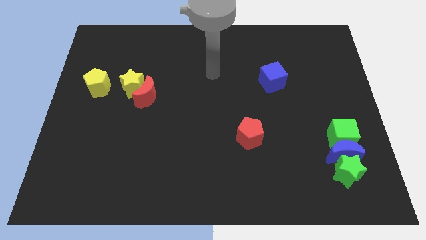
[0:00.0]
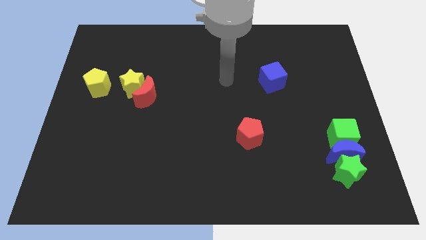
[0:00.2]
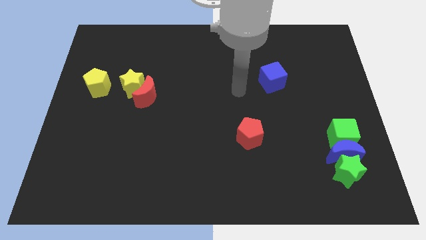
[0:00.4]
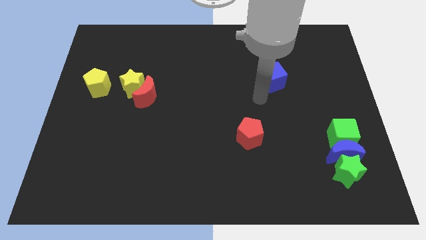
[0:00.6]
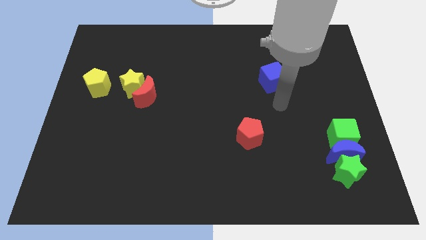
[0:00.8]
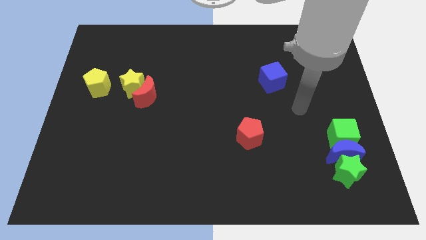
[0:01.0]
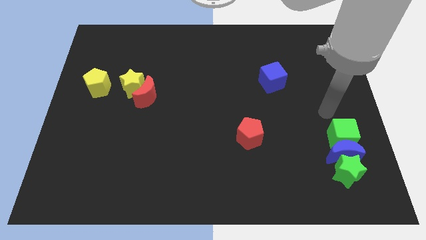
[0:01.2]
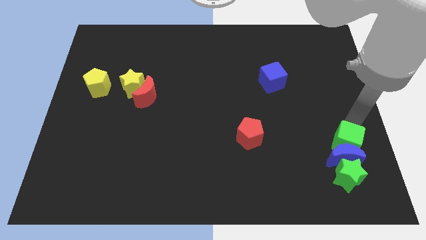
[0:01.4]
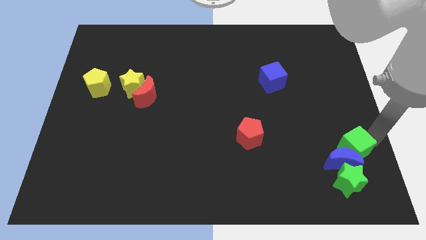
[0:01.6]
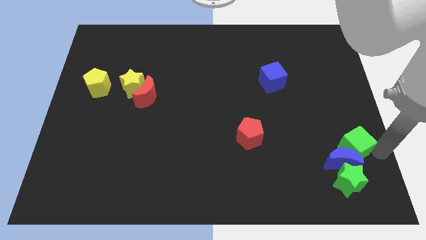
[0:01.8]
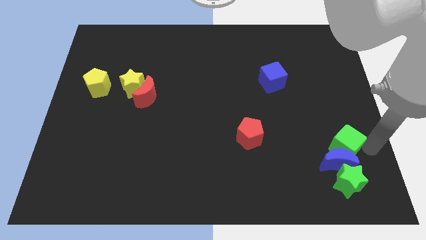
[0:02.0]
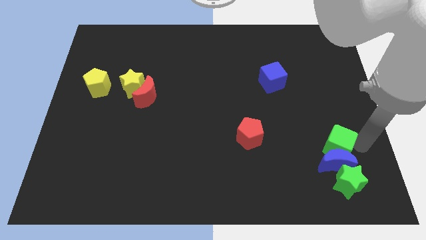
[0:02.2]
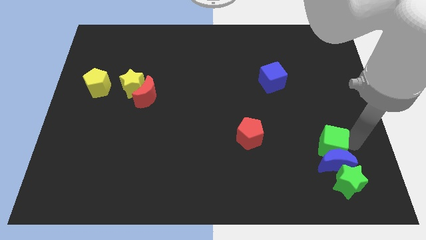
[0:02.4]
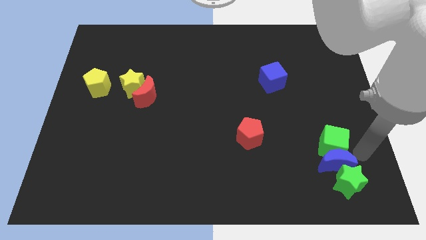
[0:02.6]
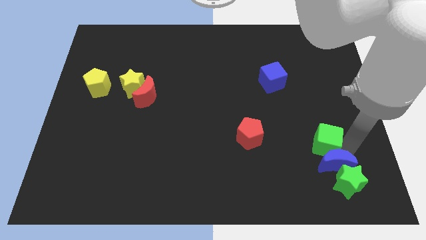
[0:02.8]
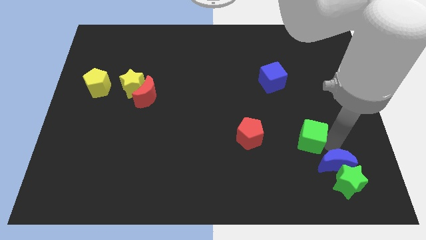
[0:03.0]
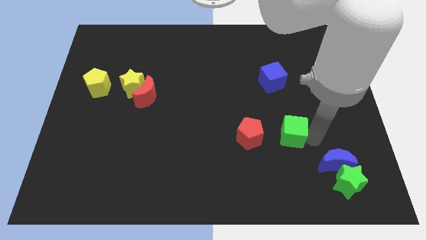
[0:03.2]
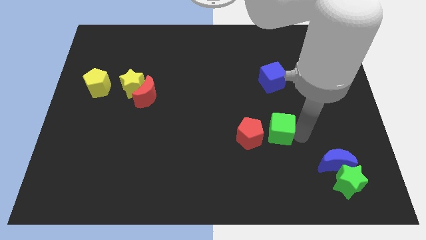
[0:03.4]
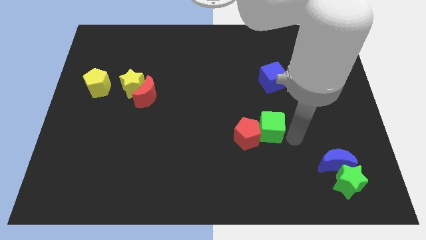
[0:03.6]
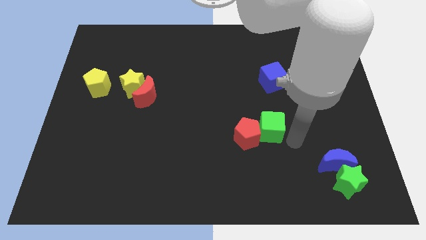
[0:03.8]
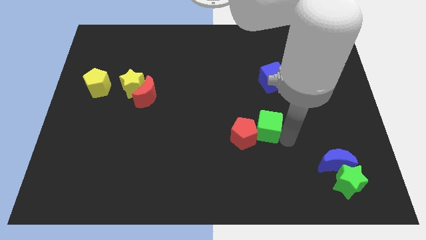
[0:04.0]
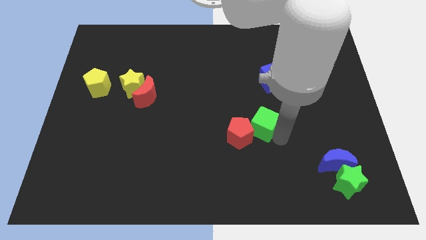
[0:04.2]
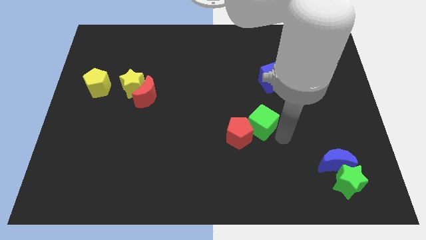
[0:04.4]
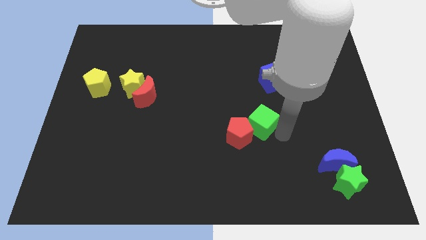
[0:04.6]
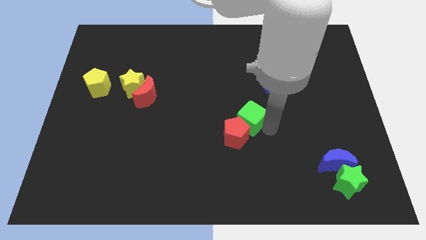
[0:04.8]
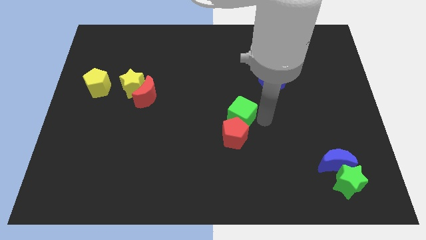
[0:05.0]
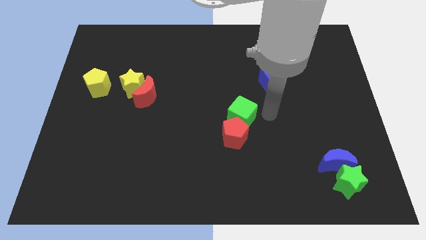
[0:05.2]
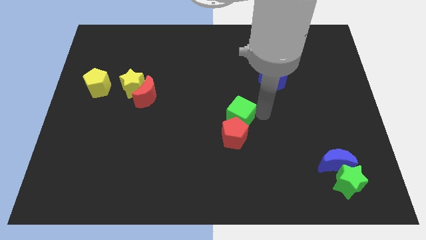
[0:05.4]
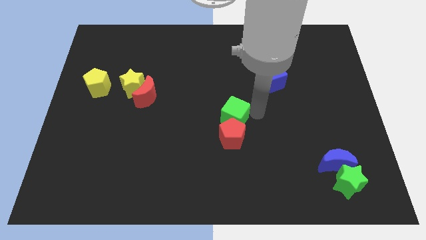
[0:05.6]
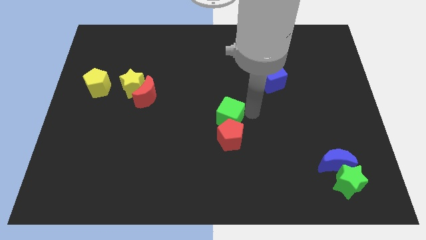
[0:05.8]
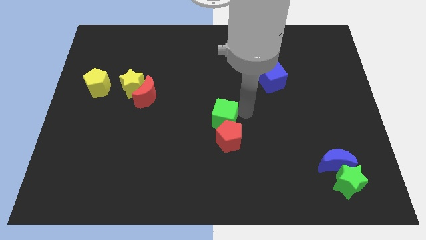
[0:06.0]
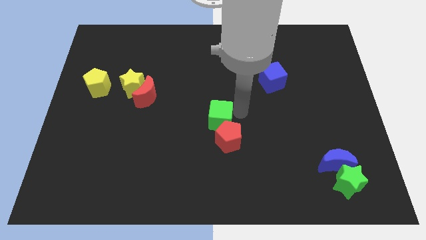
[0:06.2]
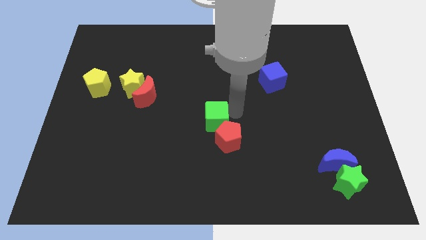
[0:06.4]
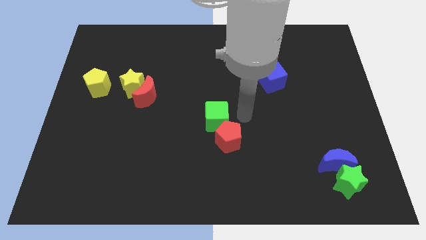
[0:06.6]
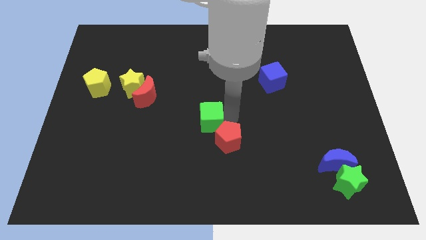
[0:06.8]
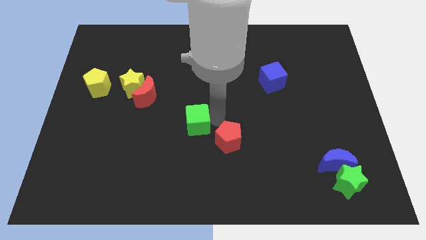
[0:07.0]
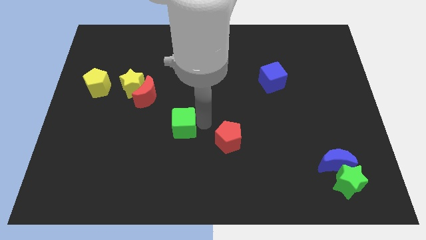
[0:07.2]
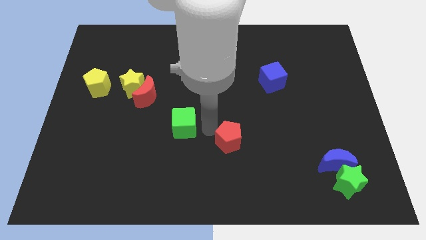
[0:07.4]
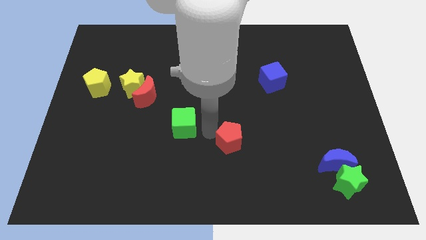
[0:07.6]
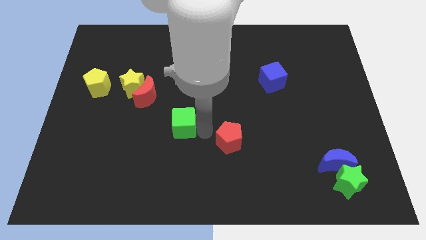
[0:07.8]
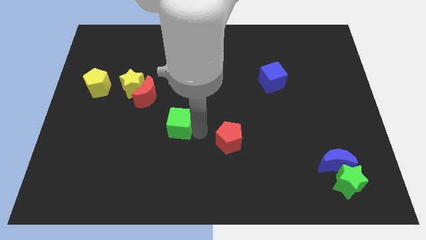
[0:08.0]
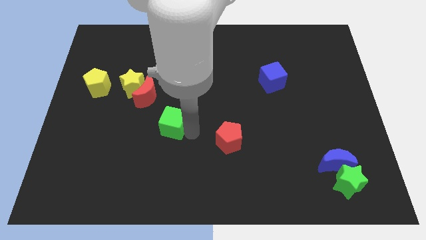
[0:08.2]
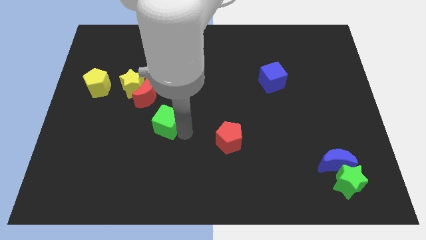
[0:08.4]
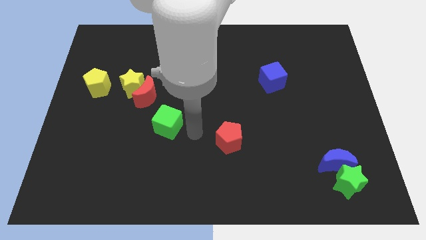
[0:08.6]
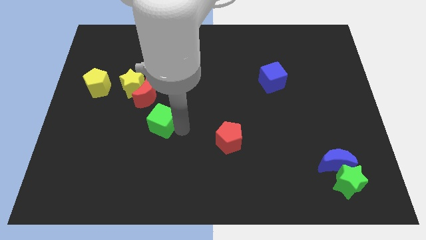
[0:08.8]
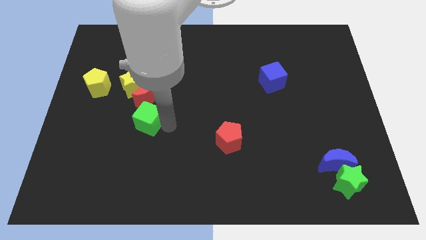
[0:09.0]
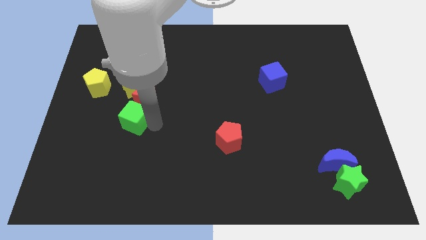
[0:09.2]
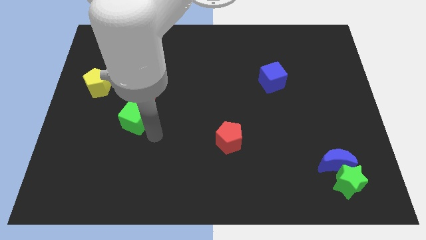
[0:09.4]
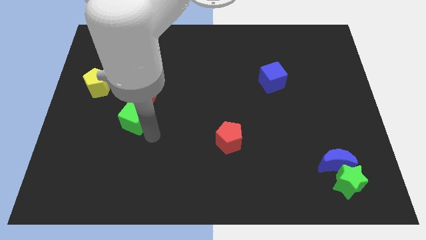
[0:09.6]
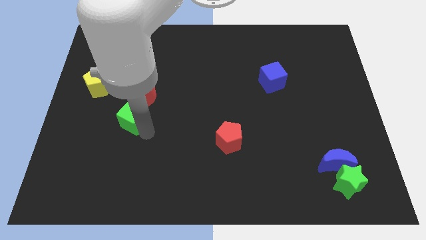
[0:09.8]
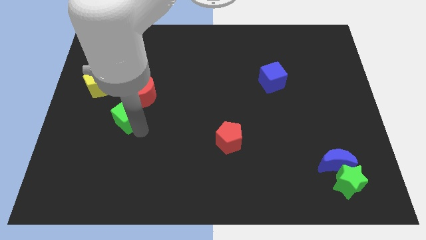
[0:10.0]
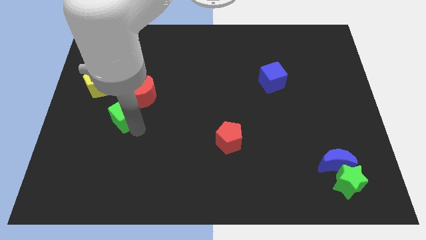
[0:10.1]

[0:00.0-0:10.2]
slide the green cube to the bottom right side of the yellow pentagon

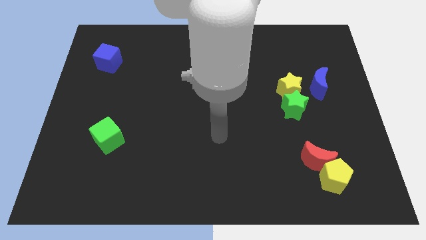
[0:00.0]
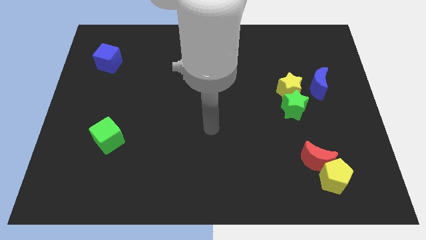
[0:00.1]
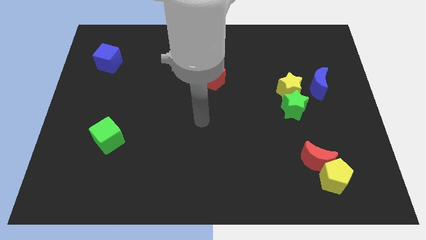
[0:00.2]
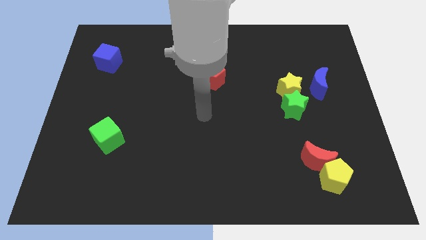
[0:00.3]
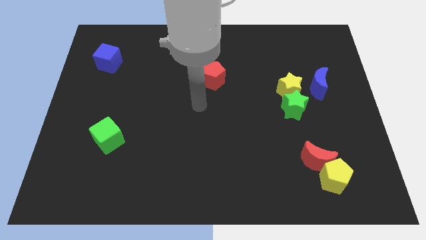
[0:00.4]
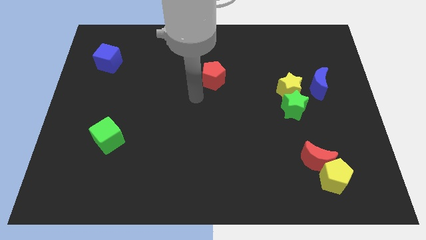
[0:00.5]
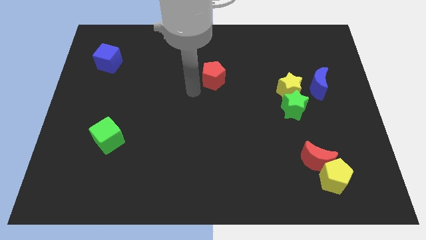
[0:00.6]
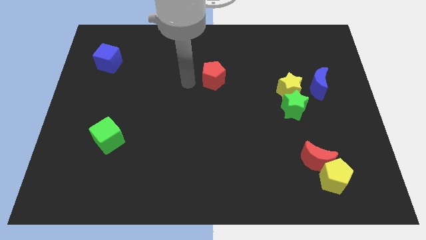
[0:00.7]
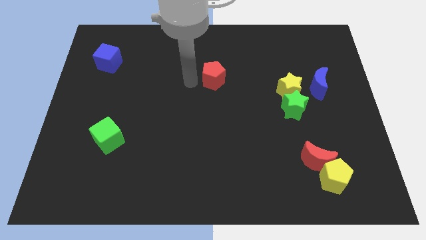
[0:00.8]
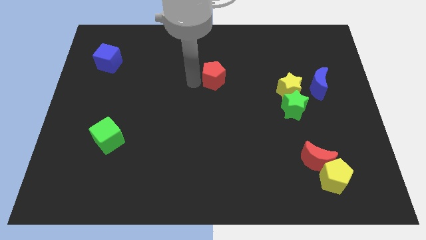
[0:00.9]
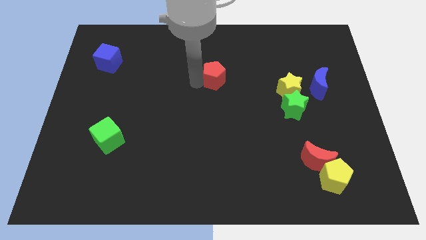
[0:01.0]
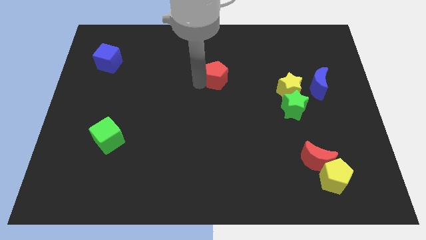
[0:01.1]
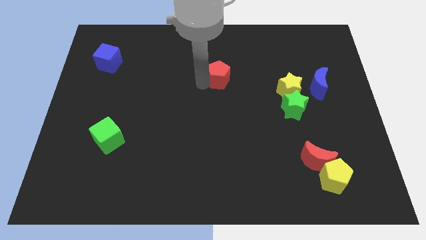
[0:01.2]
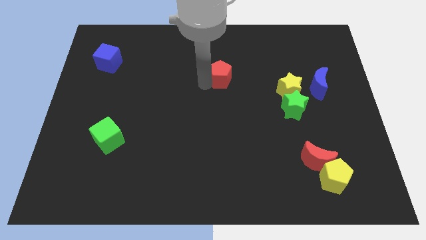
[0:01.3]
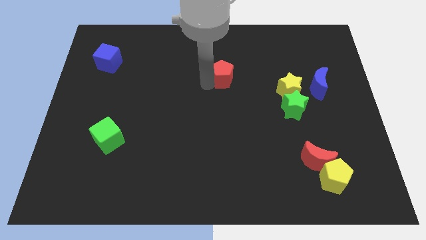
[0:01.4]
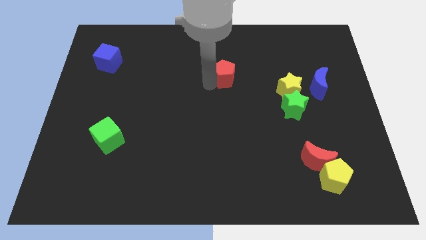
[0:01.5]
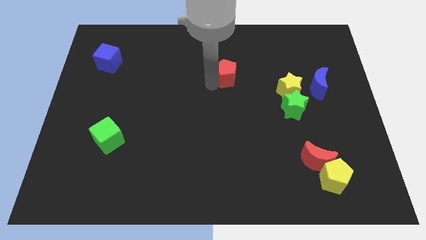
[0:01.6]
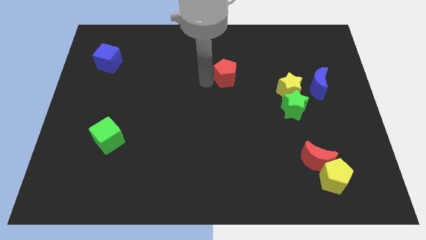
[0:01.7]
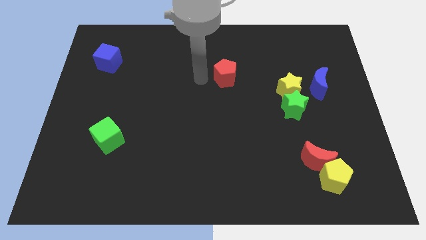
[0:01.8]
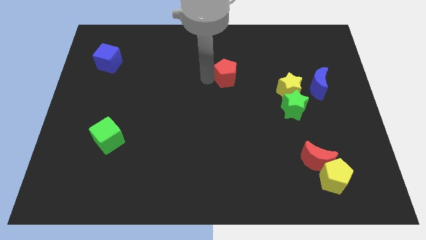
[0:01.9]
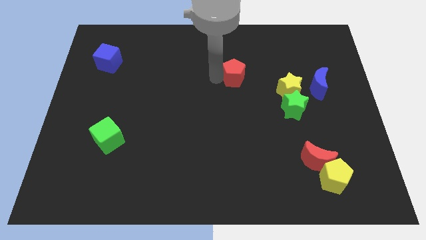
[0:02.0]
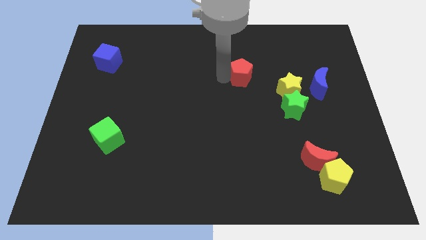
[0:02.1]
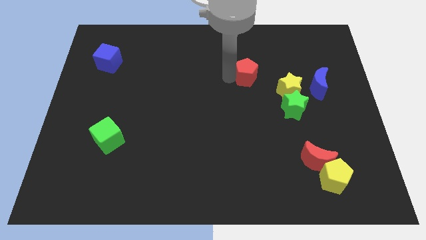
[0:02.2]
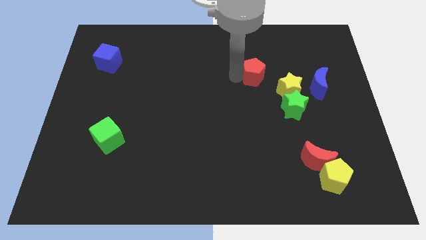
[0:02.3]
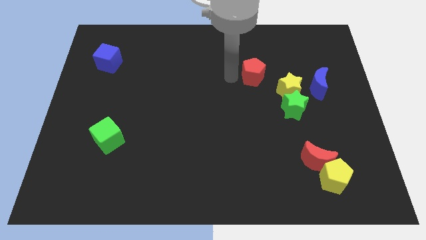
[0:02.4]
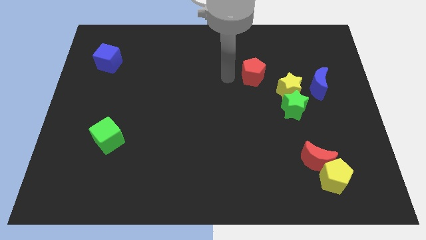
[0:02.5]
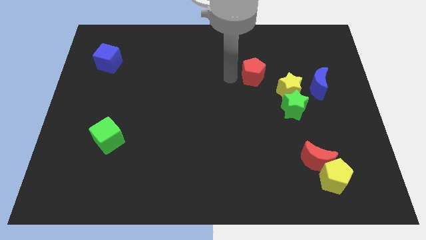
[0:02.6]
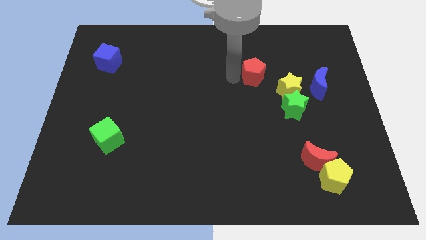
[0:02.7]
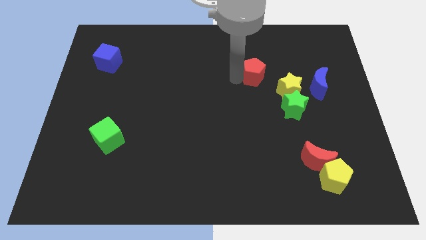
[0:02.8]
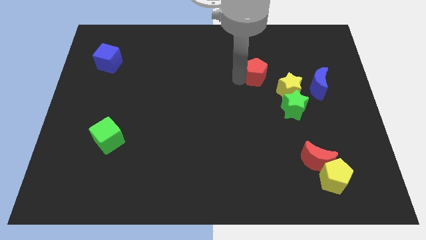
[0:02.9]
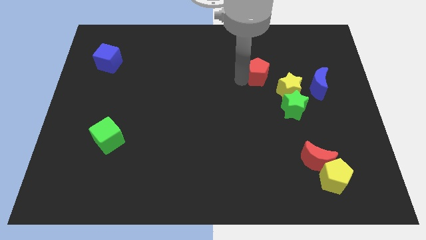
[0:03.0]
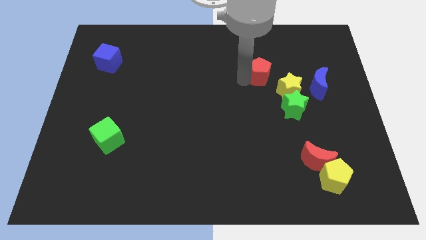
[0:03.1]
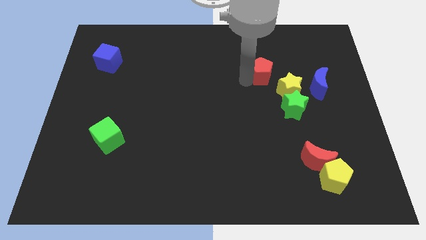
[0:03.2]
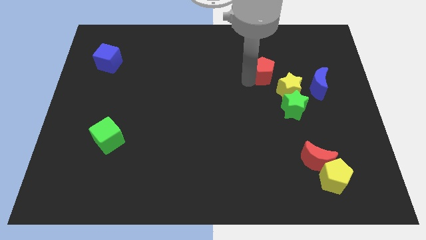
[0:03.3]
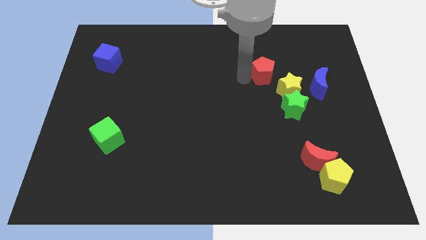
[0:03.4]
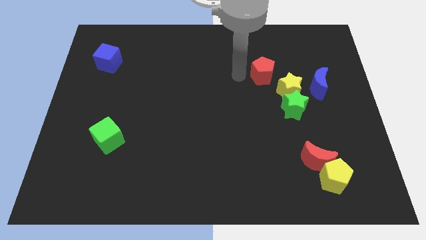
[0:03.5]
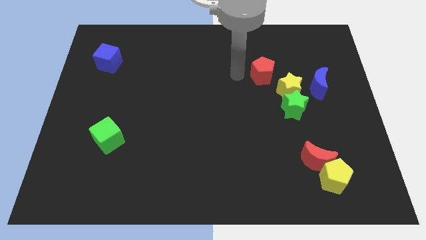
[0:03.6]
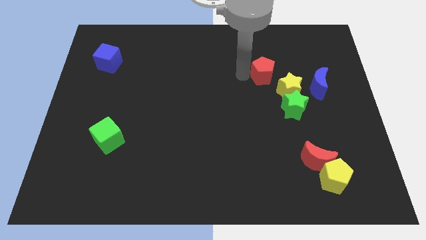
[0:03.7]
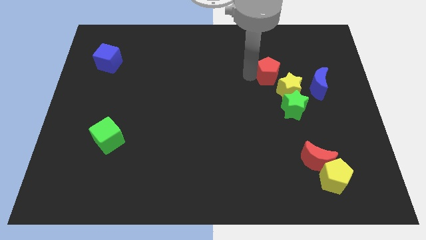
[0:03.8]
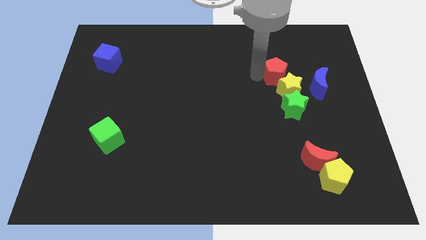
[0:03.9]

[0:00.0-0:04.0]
push the red pentagon to the top side of the green star
